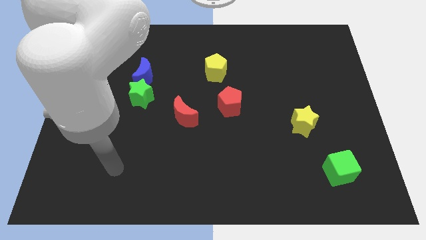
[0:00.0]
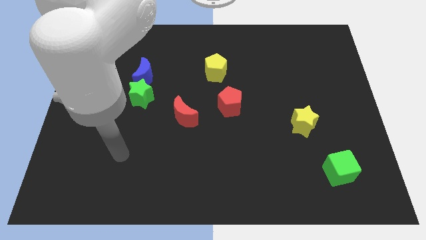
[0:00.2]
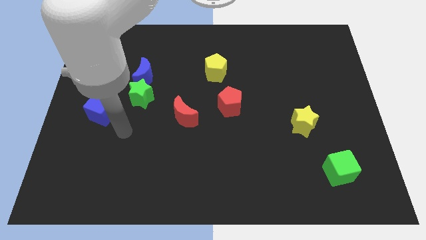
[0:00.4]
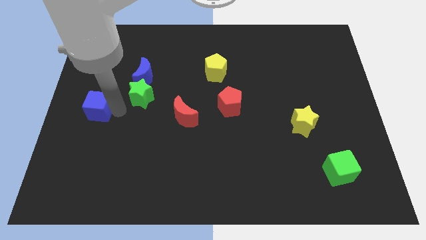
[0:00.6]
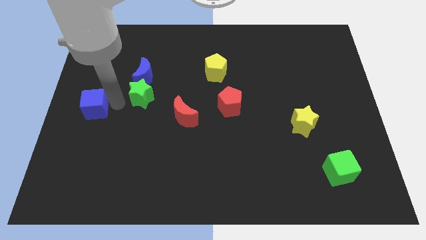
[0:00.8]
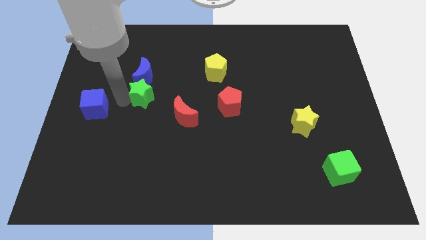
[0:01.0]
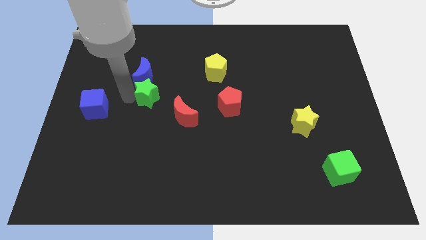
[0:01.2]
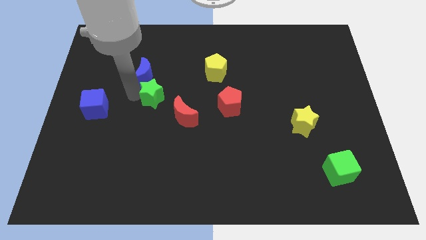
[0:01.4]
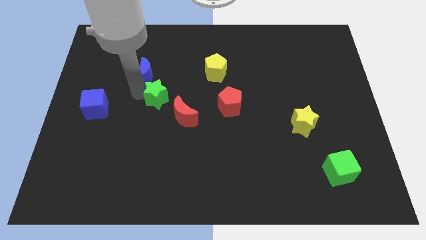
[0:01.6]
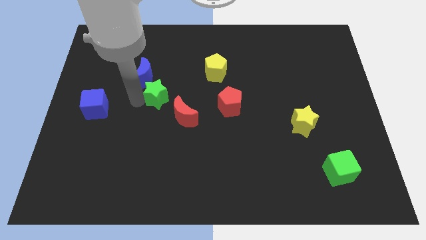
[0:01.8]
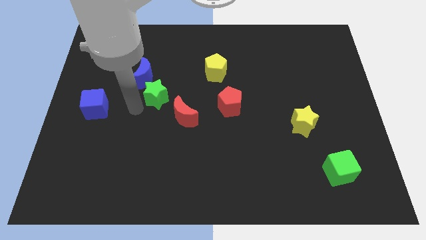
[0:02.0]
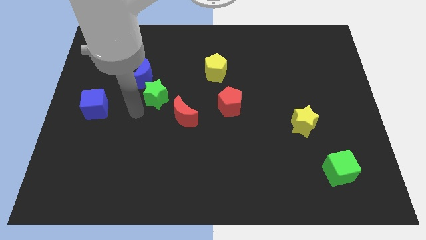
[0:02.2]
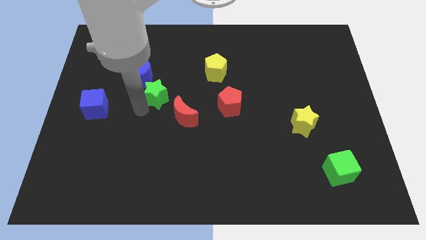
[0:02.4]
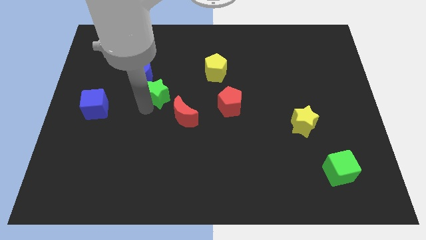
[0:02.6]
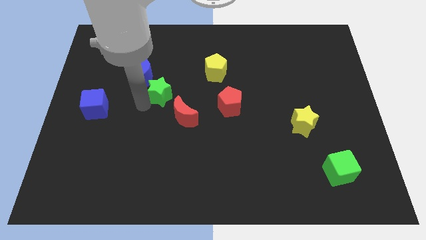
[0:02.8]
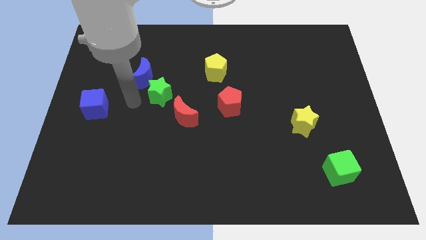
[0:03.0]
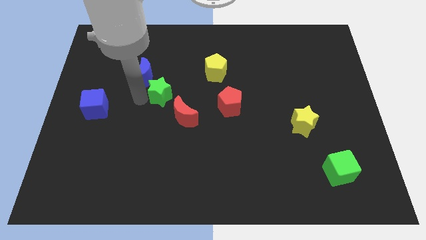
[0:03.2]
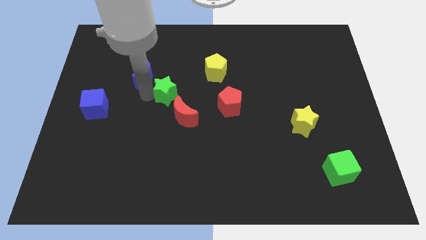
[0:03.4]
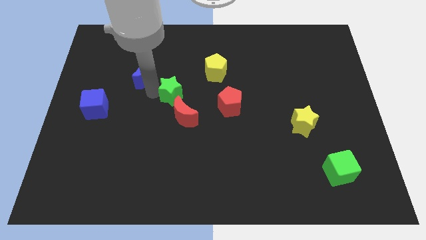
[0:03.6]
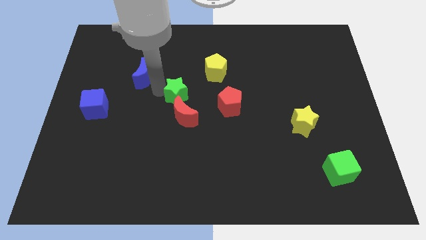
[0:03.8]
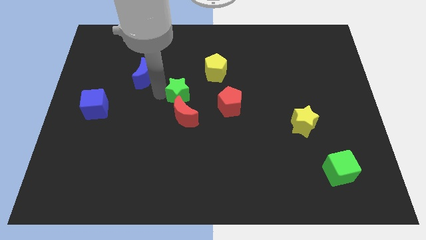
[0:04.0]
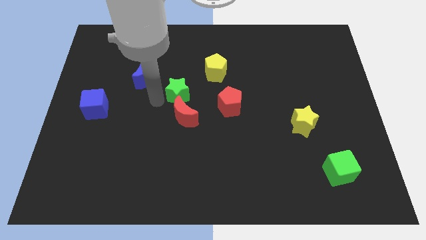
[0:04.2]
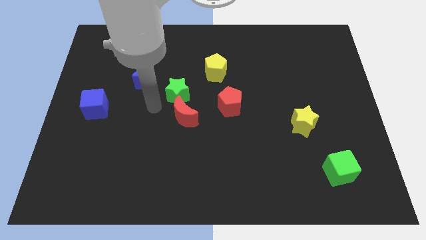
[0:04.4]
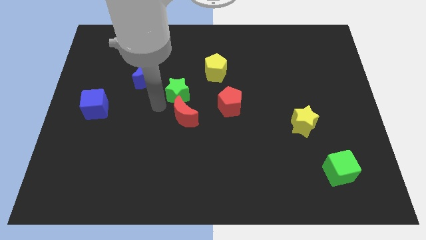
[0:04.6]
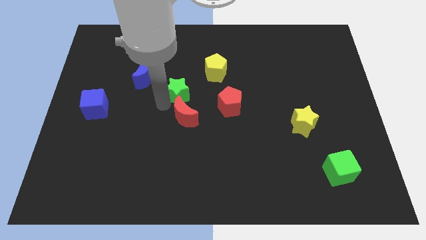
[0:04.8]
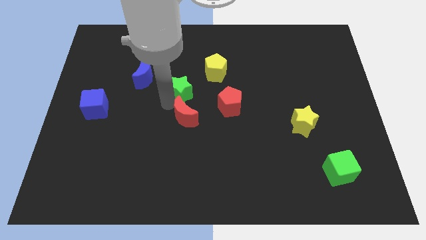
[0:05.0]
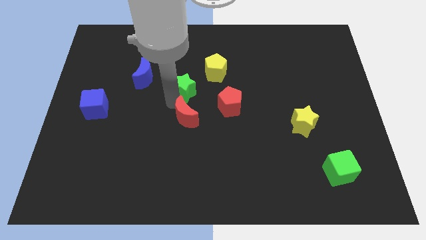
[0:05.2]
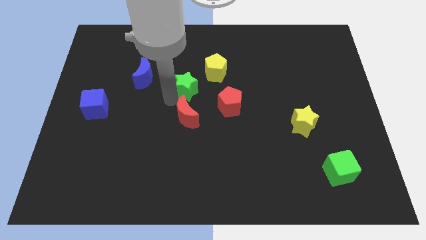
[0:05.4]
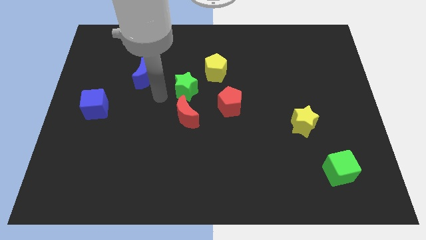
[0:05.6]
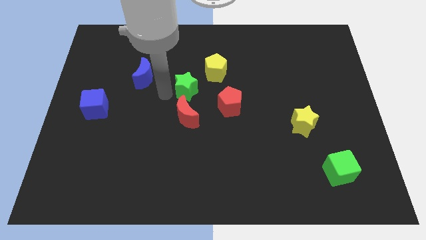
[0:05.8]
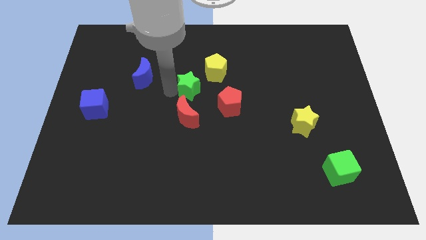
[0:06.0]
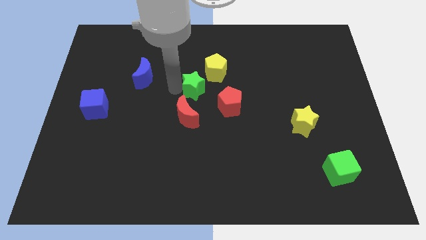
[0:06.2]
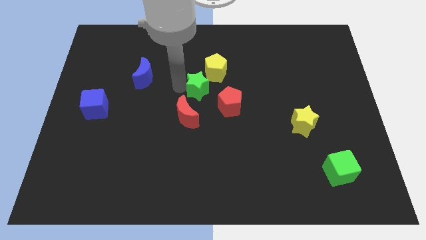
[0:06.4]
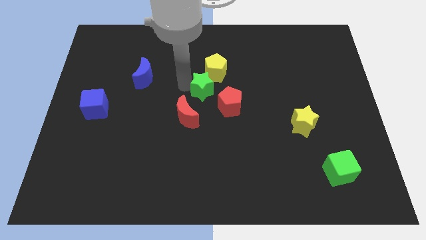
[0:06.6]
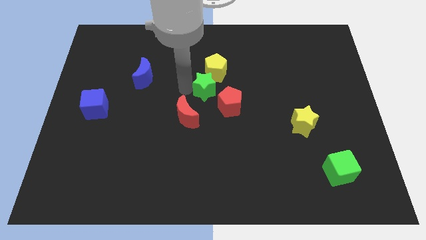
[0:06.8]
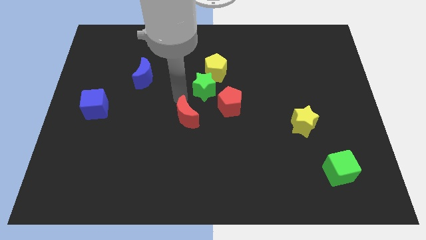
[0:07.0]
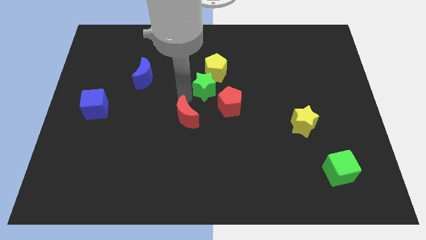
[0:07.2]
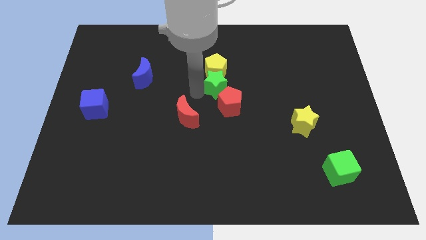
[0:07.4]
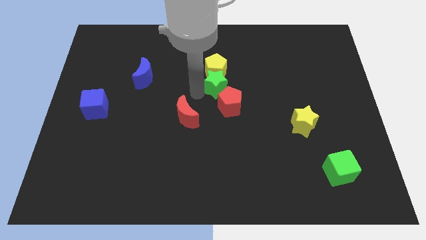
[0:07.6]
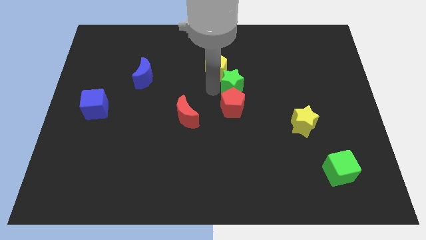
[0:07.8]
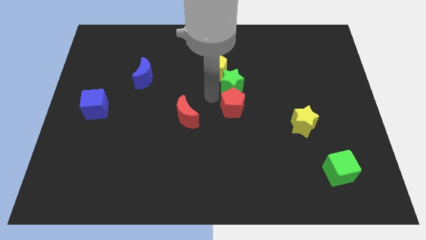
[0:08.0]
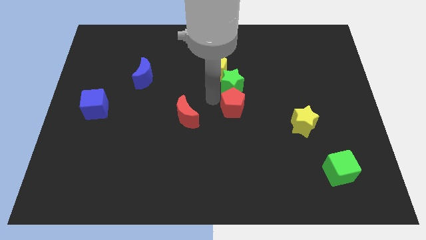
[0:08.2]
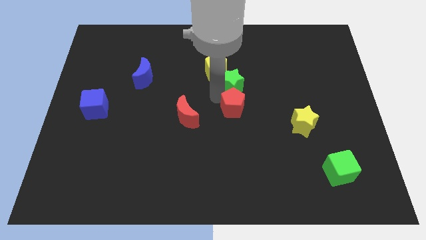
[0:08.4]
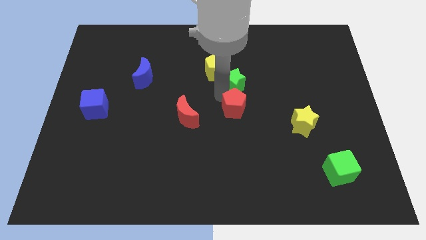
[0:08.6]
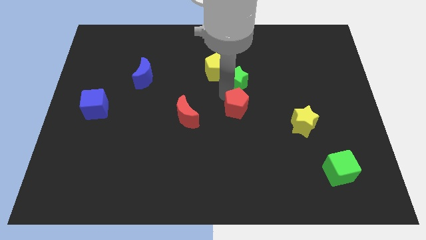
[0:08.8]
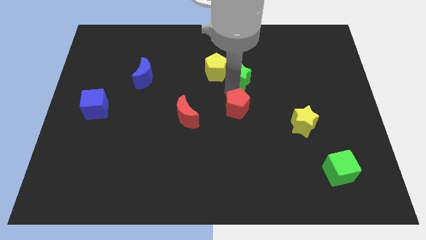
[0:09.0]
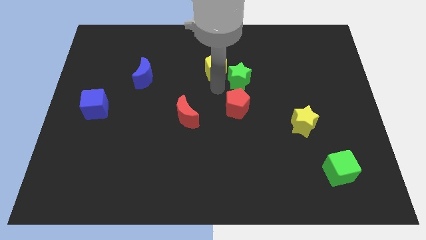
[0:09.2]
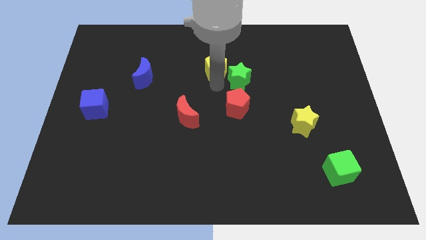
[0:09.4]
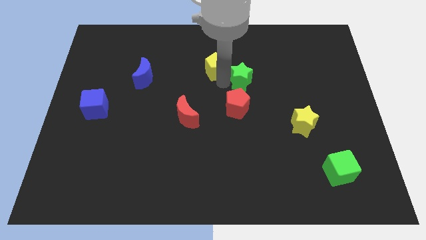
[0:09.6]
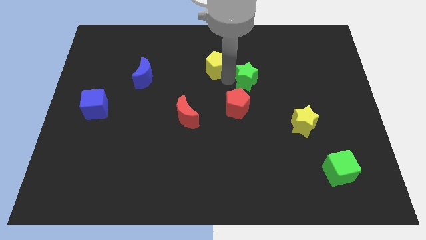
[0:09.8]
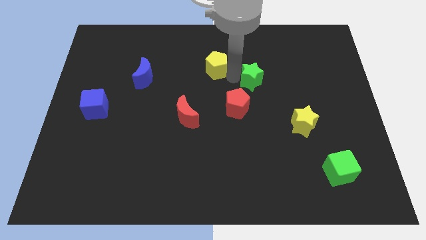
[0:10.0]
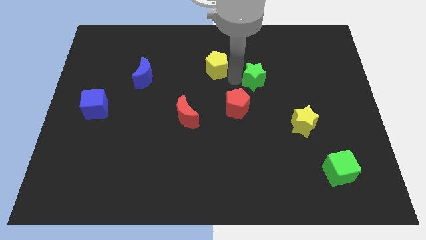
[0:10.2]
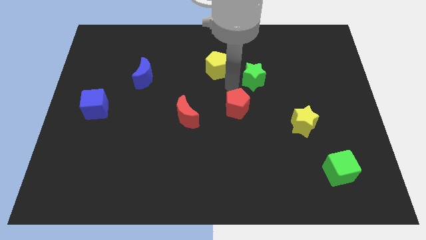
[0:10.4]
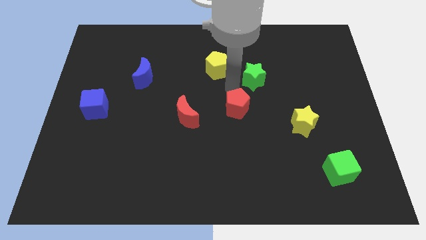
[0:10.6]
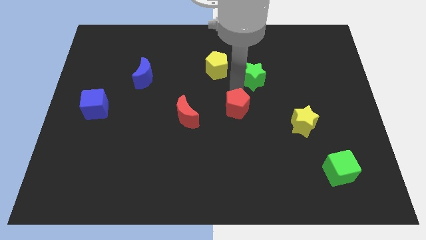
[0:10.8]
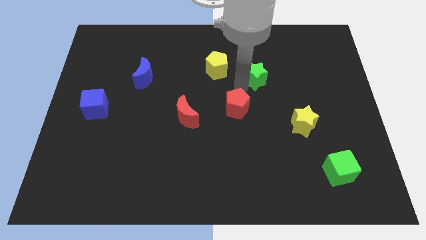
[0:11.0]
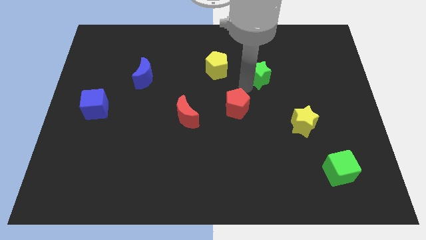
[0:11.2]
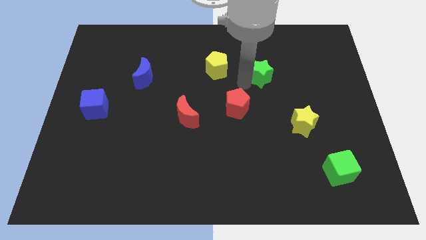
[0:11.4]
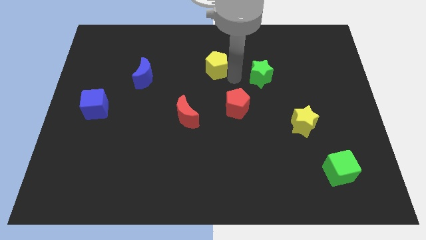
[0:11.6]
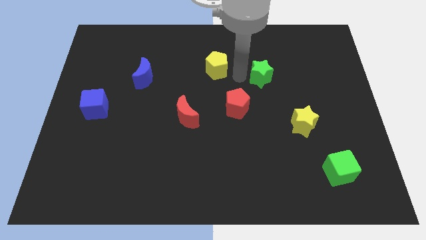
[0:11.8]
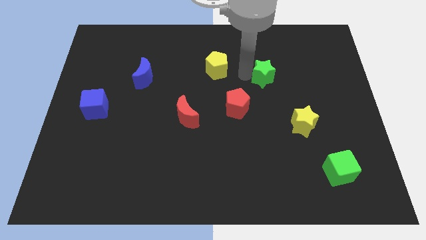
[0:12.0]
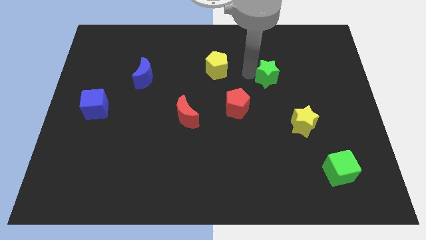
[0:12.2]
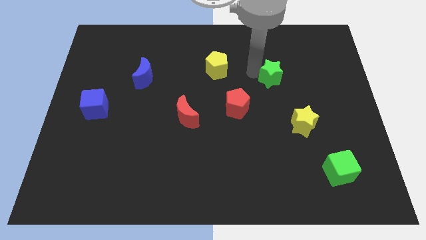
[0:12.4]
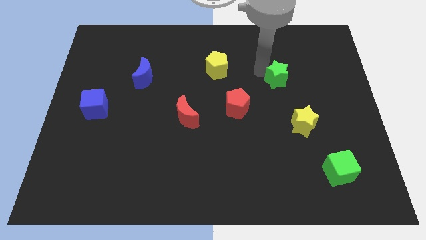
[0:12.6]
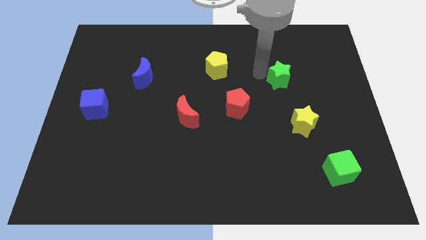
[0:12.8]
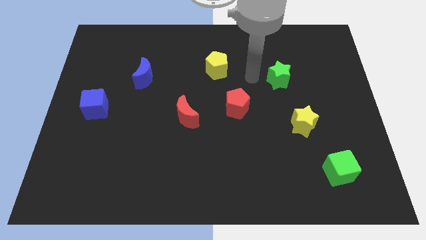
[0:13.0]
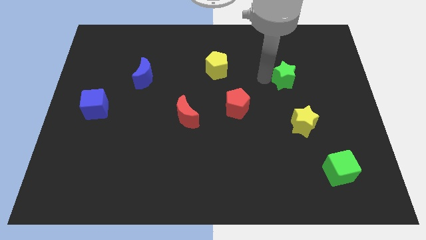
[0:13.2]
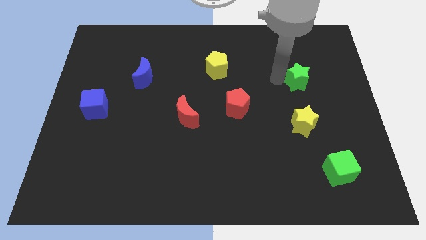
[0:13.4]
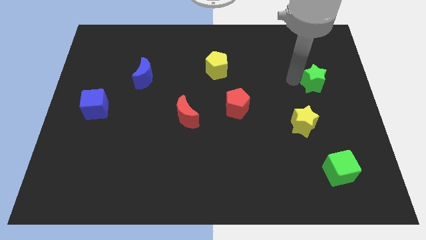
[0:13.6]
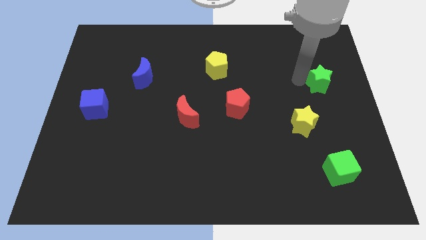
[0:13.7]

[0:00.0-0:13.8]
push the green star to the right side
